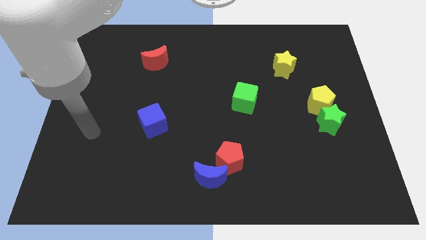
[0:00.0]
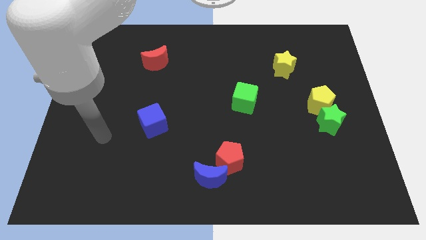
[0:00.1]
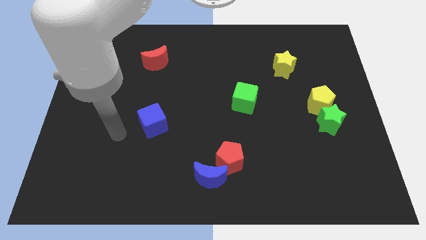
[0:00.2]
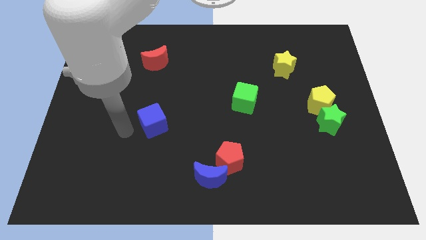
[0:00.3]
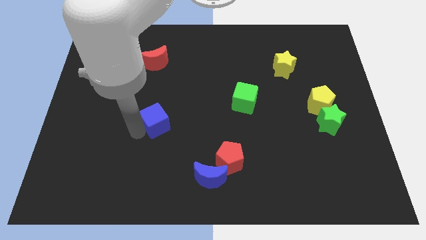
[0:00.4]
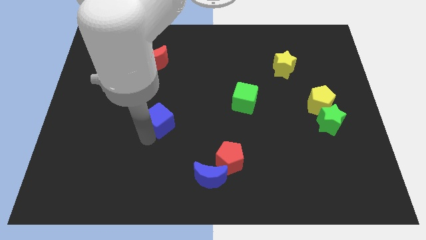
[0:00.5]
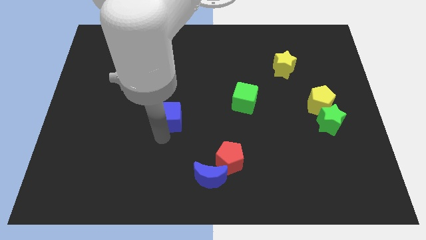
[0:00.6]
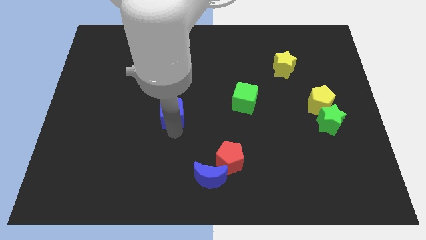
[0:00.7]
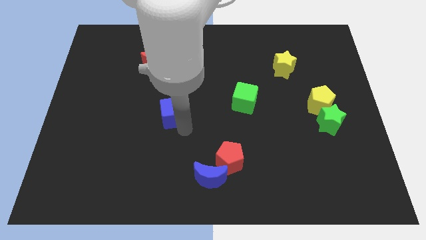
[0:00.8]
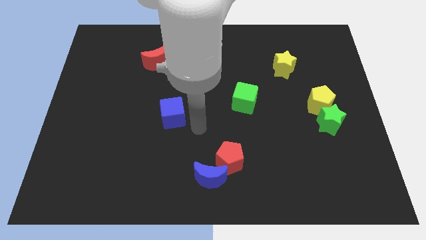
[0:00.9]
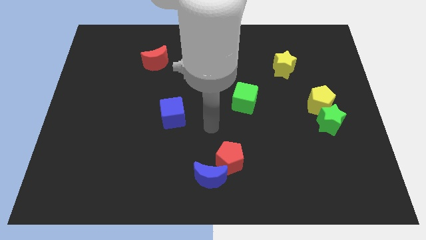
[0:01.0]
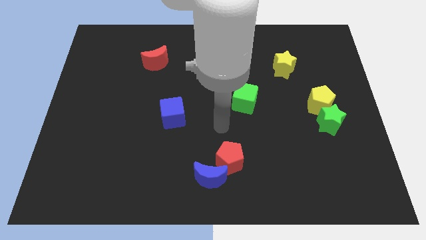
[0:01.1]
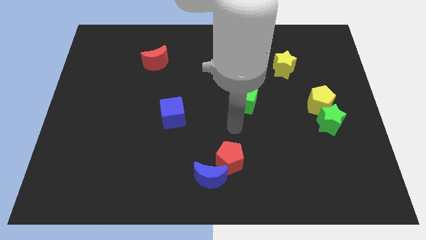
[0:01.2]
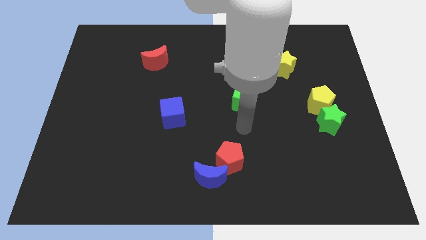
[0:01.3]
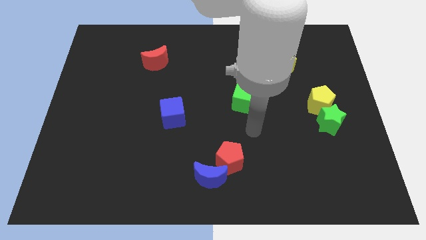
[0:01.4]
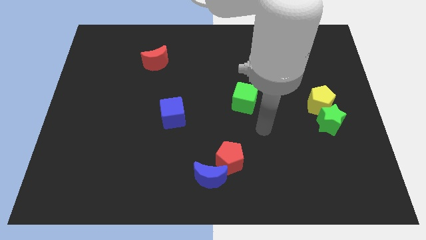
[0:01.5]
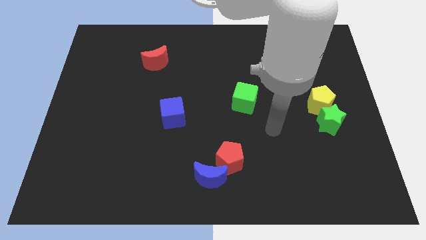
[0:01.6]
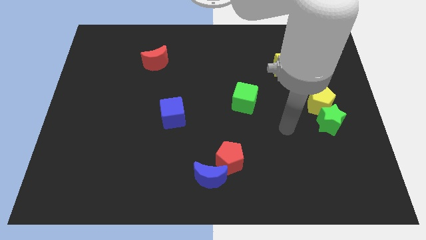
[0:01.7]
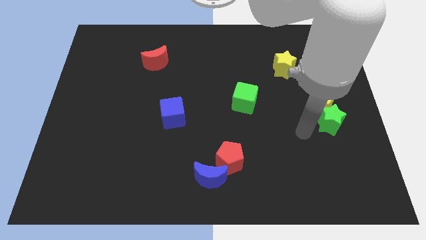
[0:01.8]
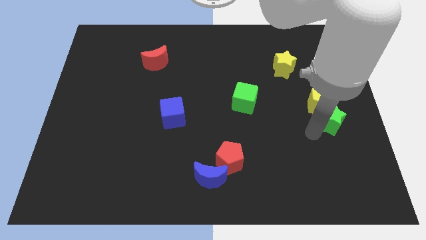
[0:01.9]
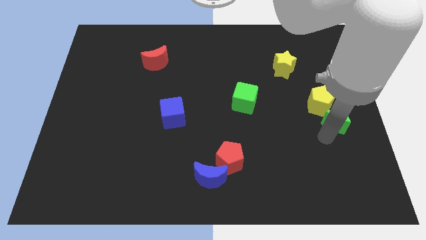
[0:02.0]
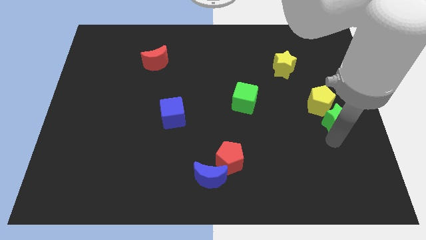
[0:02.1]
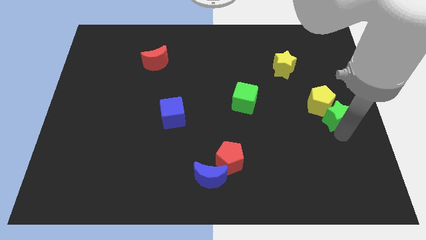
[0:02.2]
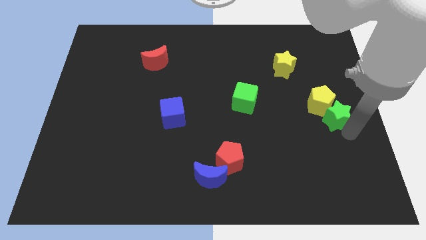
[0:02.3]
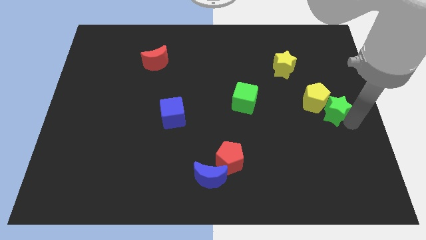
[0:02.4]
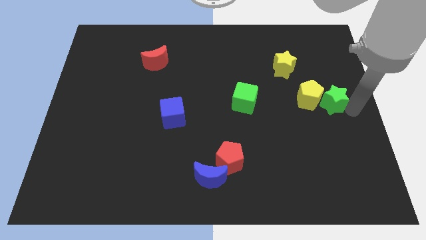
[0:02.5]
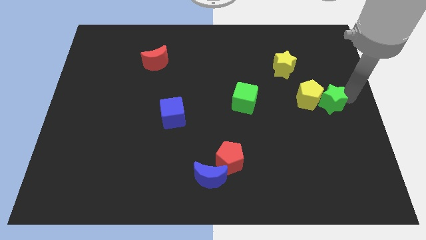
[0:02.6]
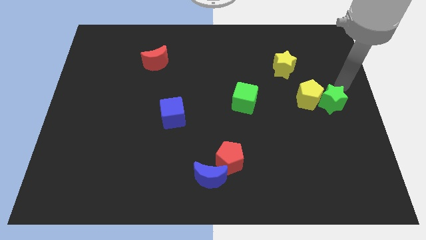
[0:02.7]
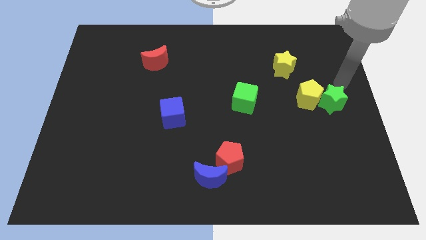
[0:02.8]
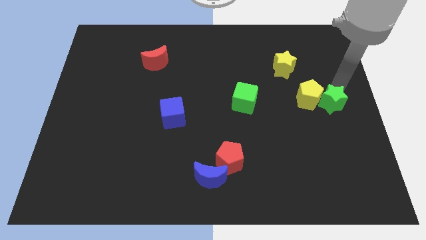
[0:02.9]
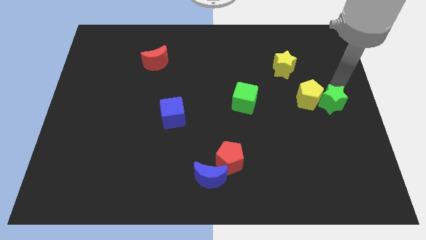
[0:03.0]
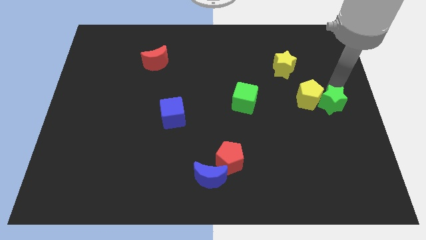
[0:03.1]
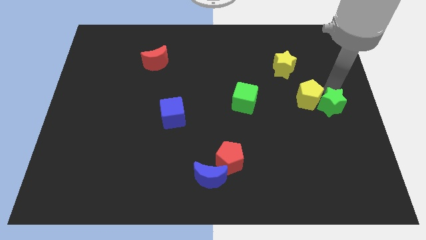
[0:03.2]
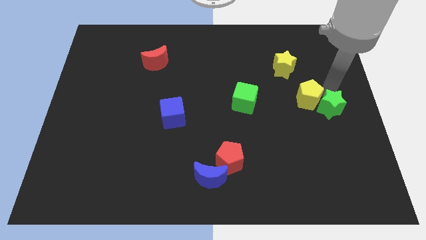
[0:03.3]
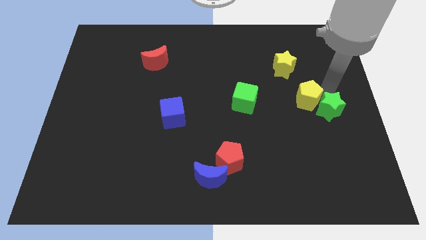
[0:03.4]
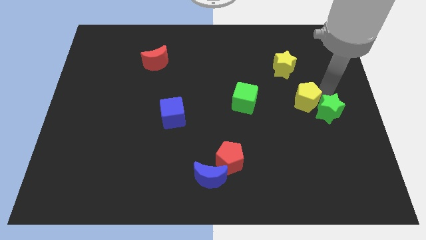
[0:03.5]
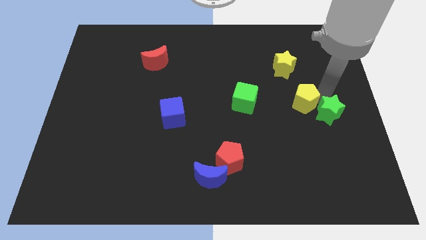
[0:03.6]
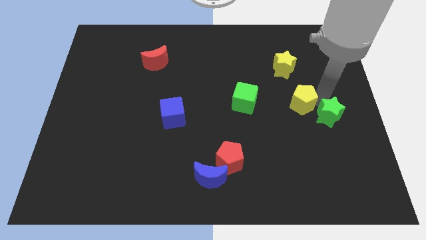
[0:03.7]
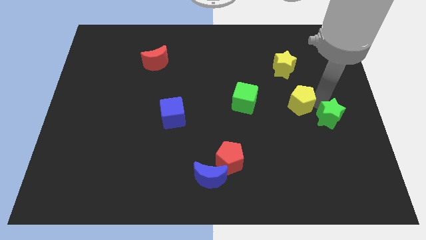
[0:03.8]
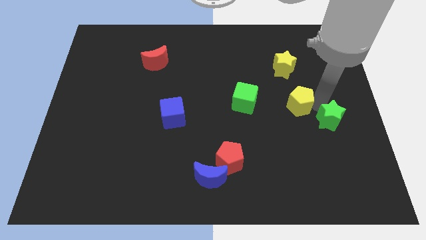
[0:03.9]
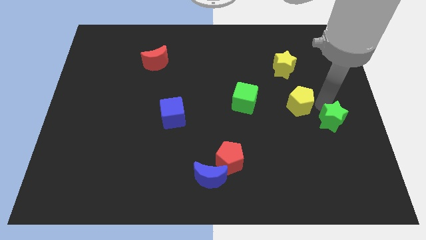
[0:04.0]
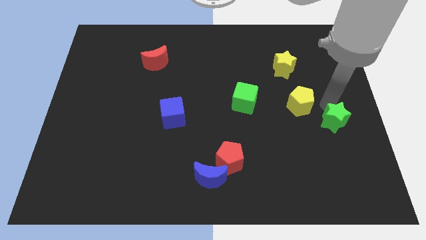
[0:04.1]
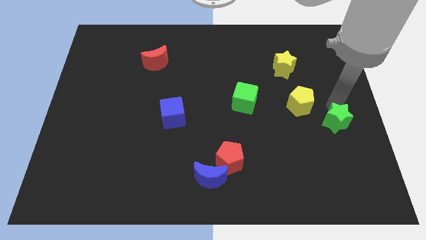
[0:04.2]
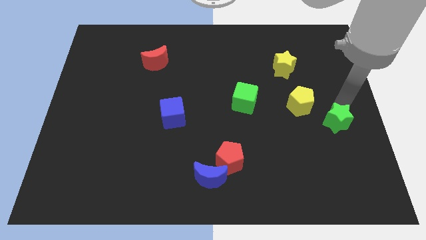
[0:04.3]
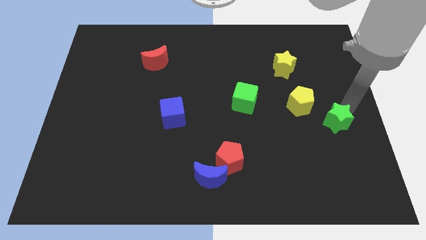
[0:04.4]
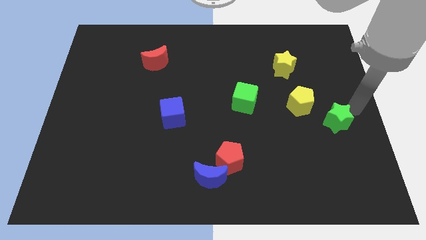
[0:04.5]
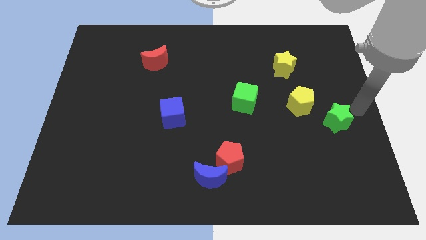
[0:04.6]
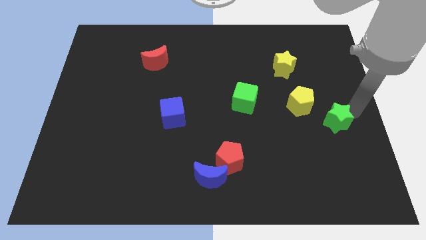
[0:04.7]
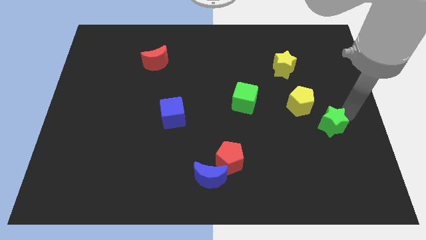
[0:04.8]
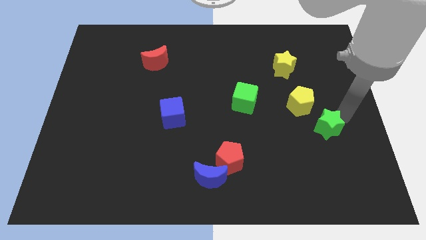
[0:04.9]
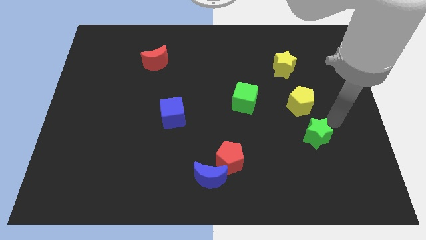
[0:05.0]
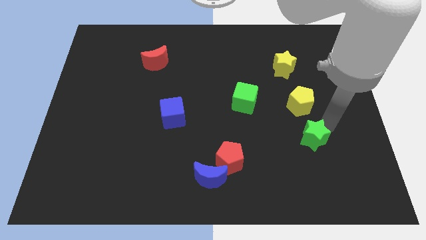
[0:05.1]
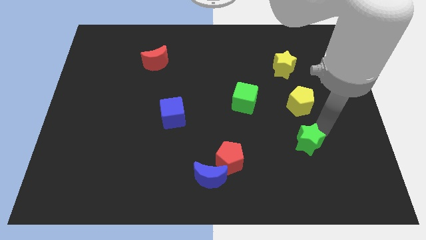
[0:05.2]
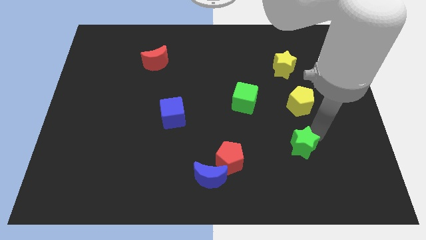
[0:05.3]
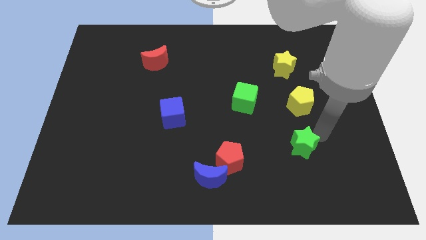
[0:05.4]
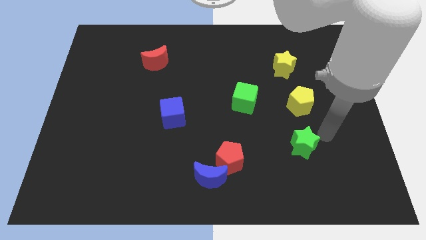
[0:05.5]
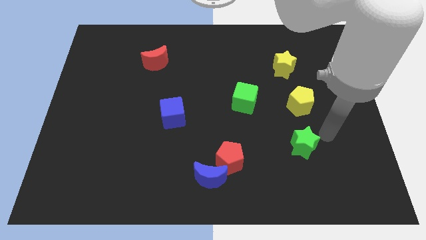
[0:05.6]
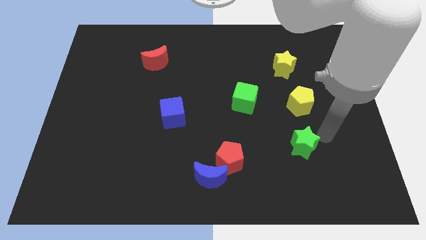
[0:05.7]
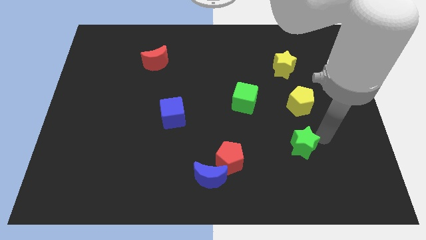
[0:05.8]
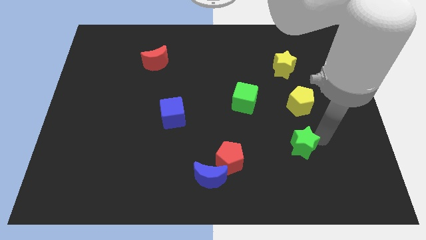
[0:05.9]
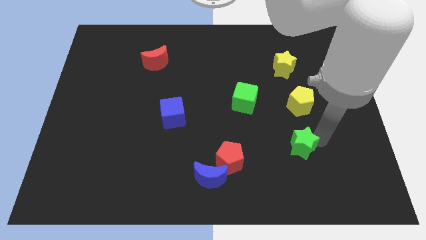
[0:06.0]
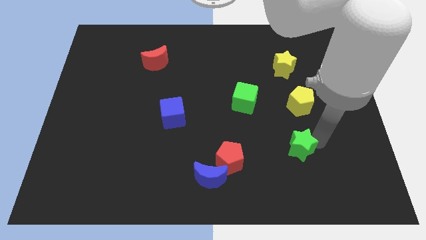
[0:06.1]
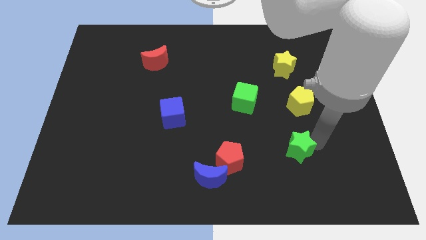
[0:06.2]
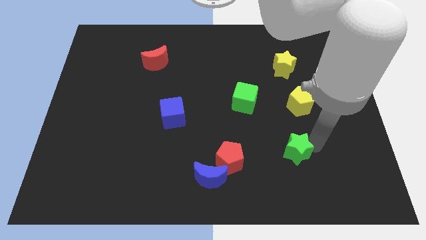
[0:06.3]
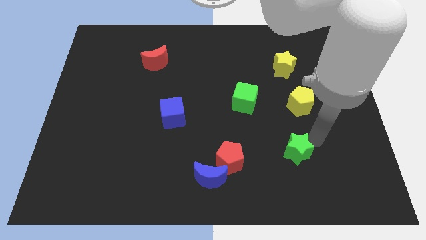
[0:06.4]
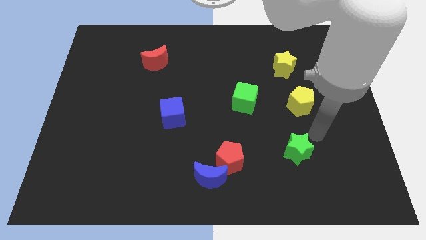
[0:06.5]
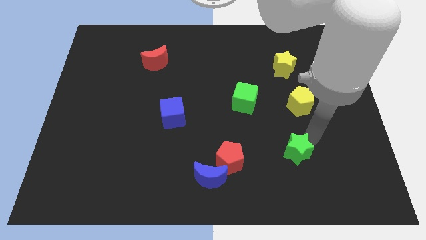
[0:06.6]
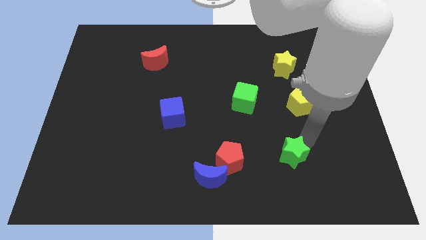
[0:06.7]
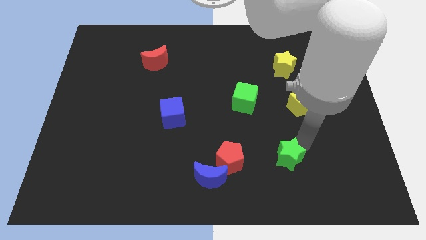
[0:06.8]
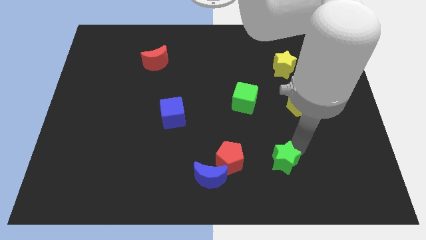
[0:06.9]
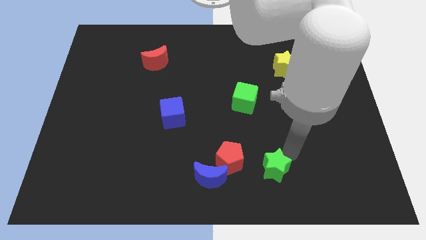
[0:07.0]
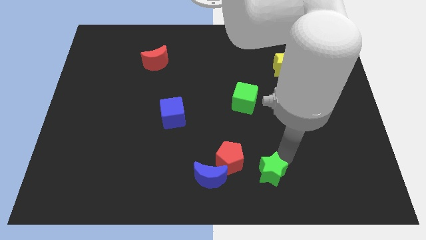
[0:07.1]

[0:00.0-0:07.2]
slide the green star diagonally down and to the right of the red pentagon
